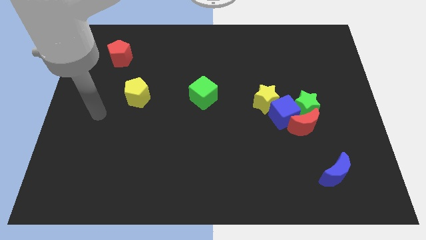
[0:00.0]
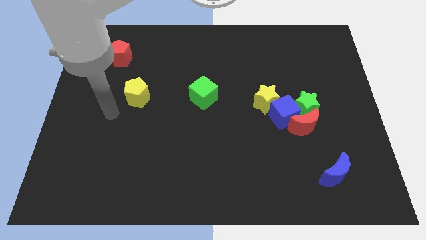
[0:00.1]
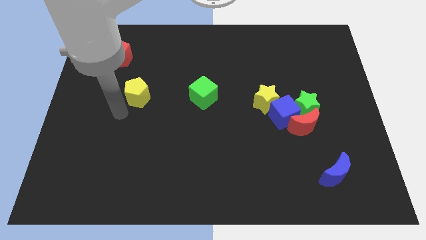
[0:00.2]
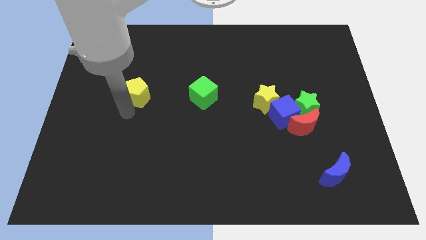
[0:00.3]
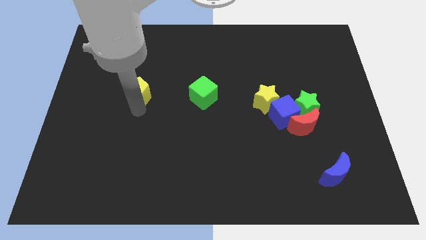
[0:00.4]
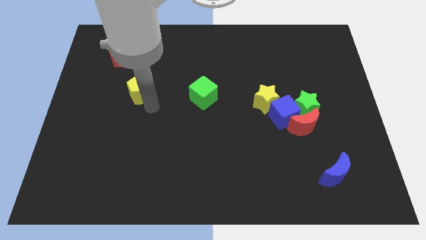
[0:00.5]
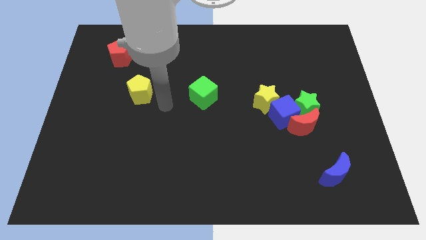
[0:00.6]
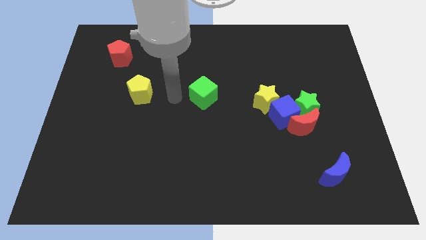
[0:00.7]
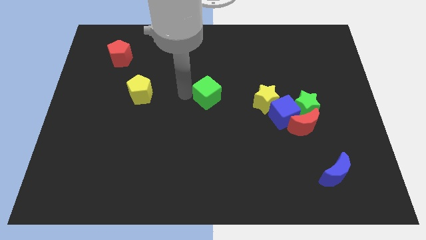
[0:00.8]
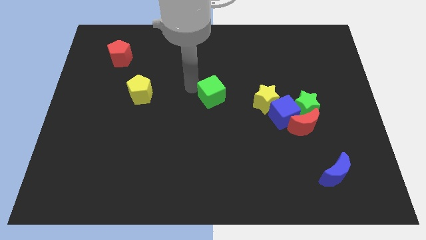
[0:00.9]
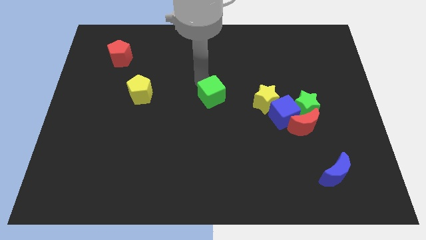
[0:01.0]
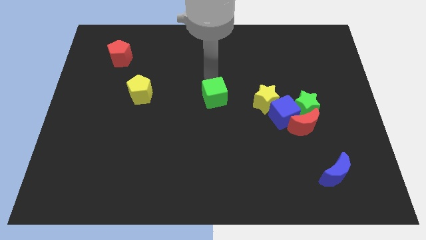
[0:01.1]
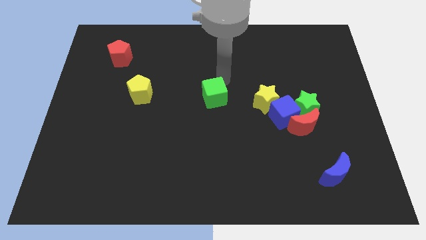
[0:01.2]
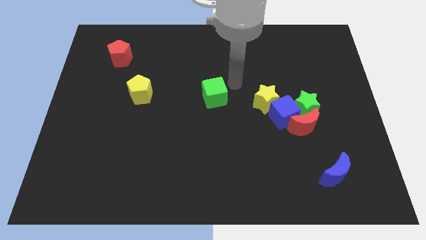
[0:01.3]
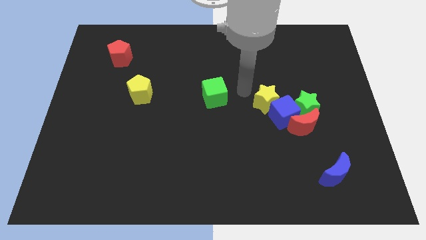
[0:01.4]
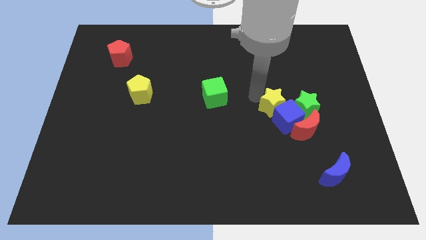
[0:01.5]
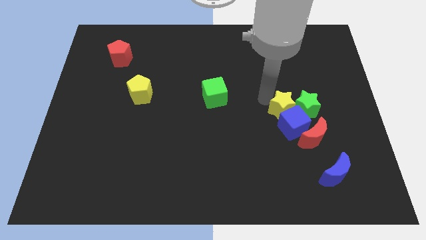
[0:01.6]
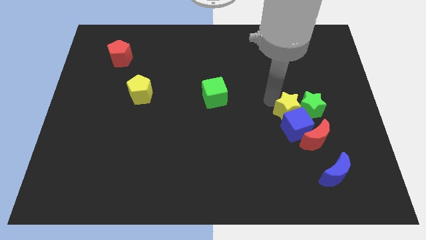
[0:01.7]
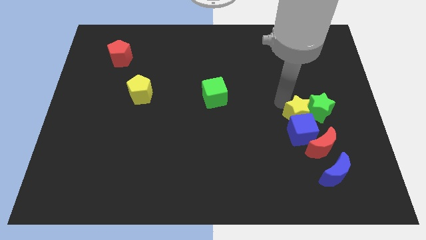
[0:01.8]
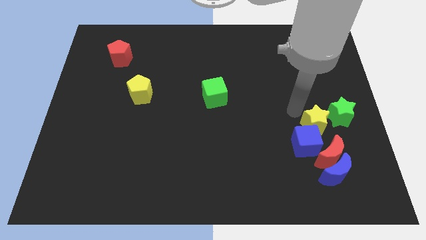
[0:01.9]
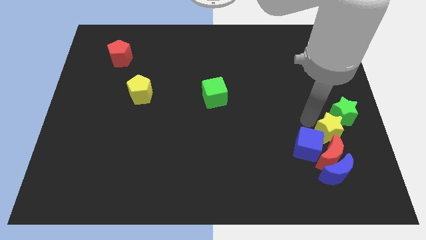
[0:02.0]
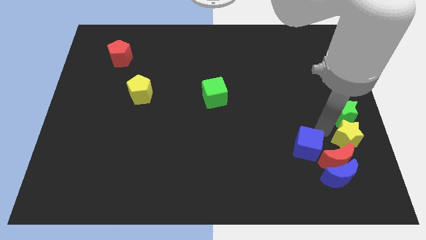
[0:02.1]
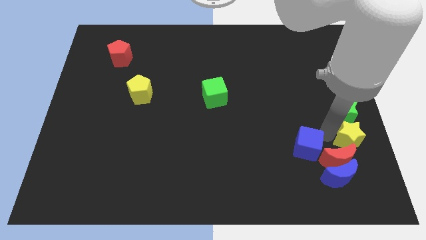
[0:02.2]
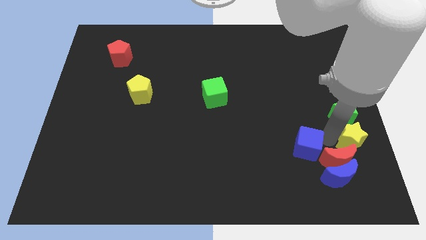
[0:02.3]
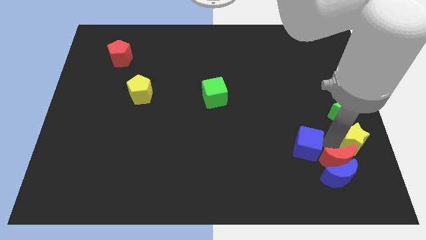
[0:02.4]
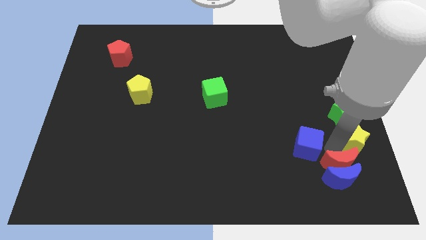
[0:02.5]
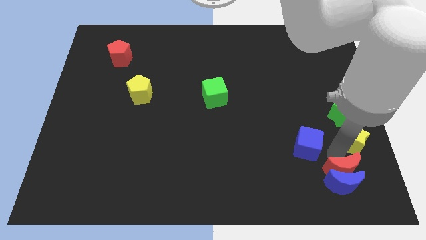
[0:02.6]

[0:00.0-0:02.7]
separate the red moon from the green star and blue cube

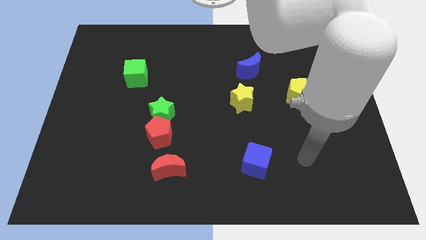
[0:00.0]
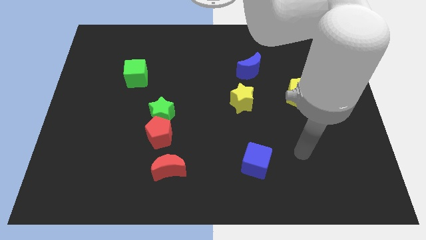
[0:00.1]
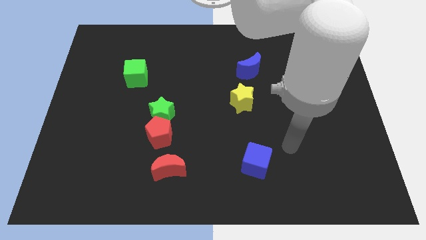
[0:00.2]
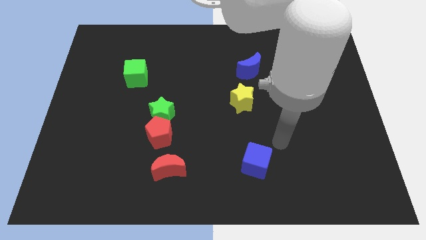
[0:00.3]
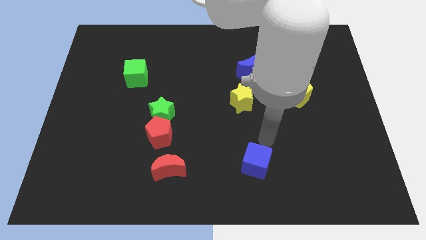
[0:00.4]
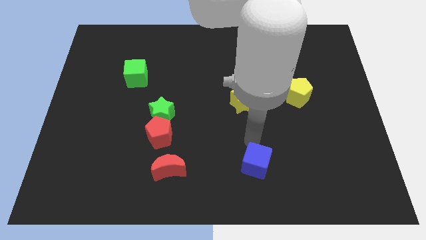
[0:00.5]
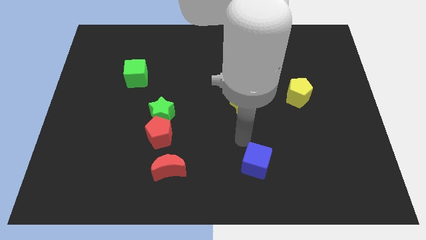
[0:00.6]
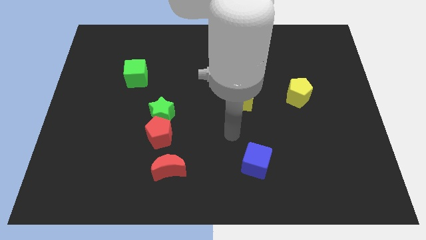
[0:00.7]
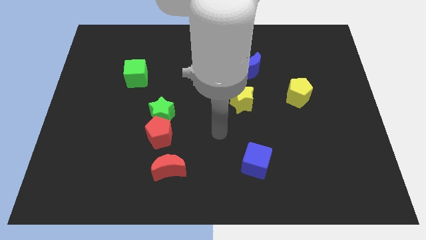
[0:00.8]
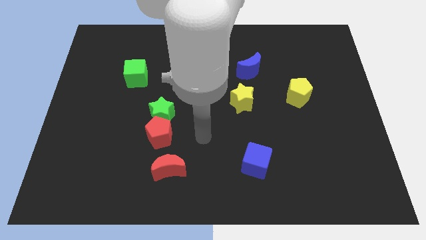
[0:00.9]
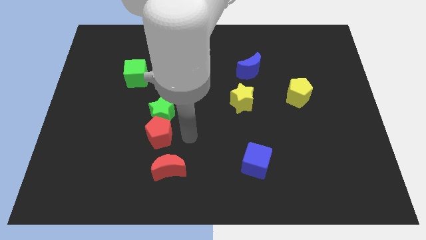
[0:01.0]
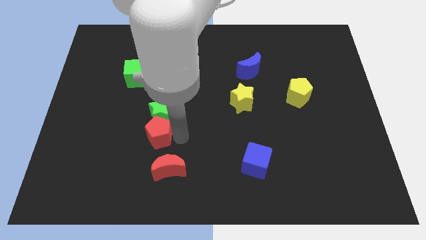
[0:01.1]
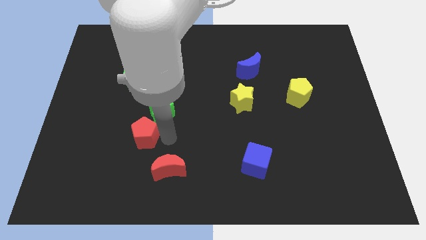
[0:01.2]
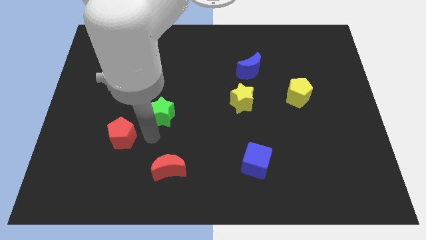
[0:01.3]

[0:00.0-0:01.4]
move the green star away from the red pentagon

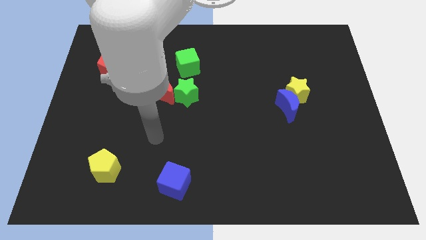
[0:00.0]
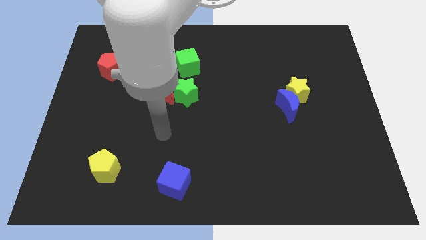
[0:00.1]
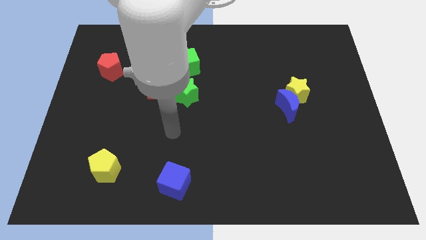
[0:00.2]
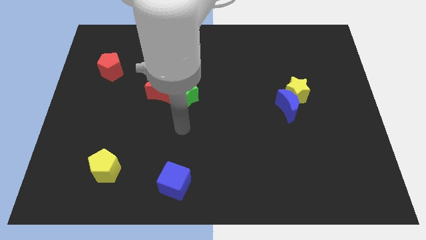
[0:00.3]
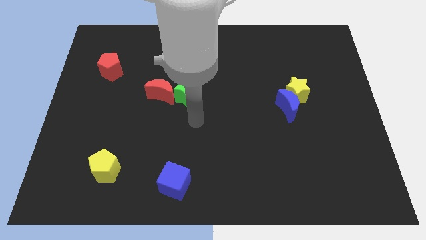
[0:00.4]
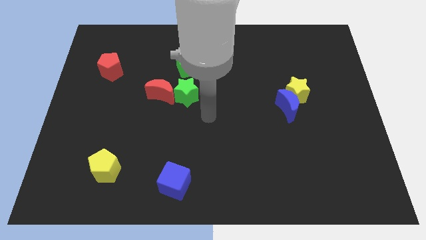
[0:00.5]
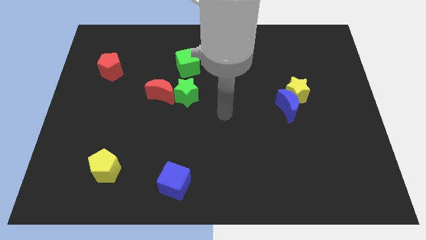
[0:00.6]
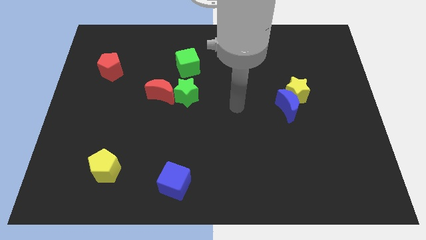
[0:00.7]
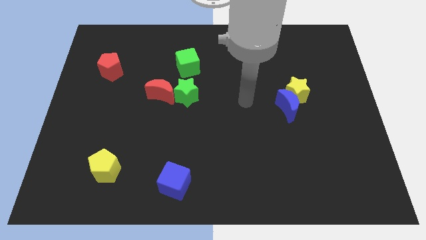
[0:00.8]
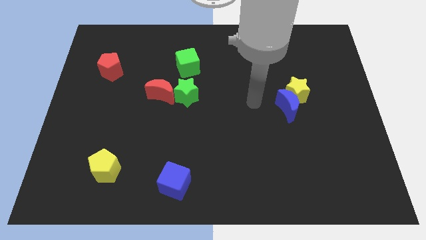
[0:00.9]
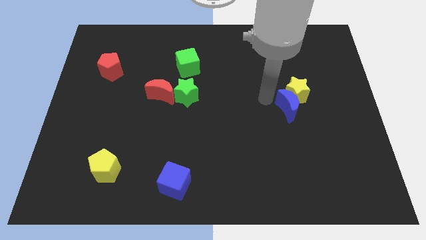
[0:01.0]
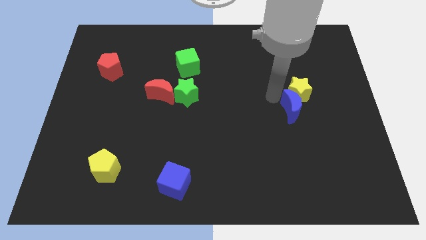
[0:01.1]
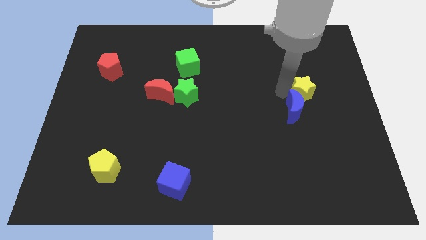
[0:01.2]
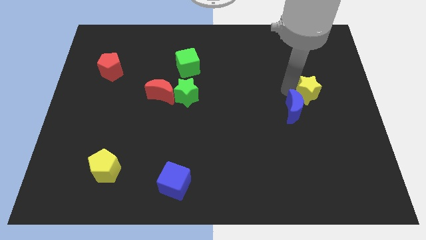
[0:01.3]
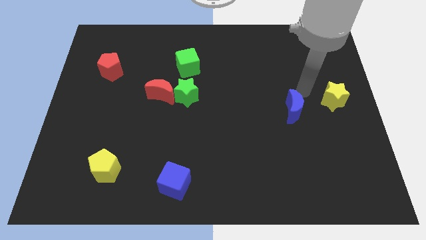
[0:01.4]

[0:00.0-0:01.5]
pull the blue moon apart from the yellow star

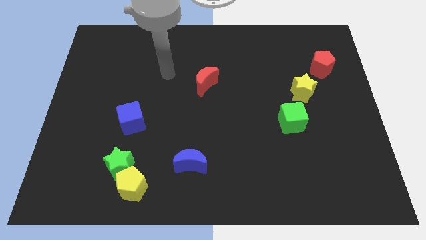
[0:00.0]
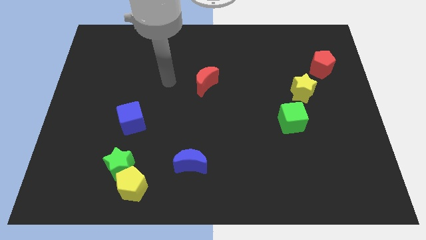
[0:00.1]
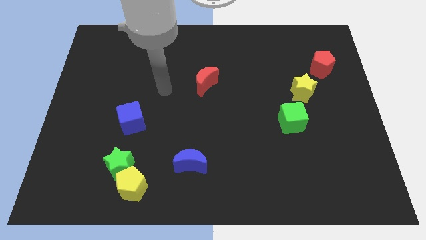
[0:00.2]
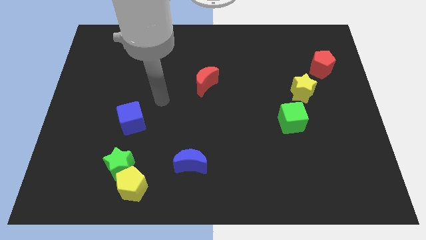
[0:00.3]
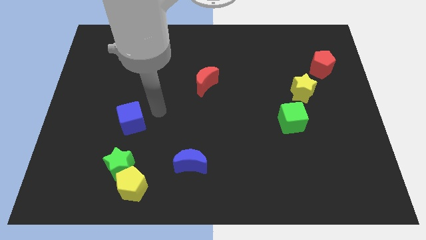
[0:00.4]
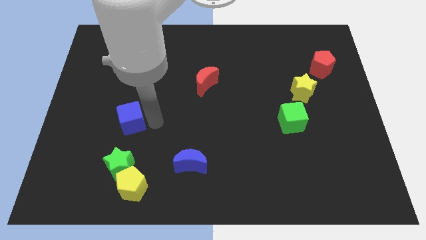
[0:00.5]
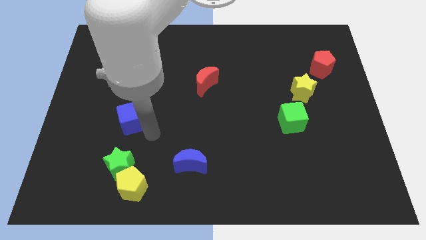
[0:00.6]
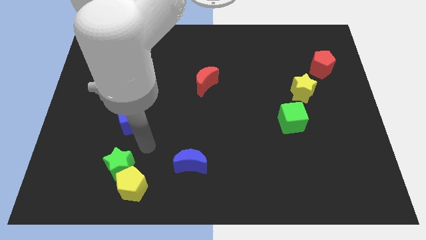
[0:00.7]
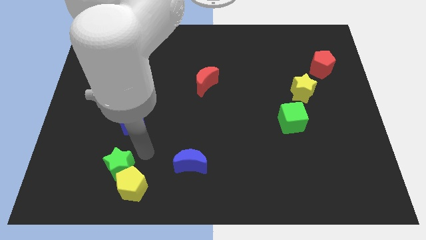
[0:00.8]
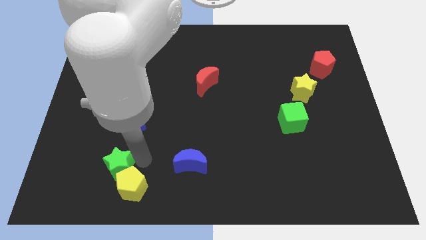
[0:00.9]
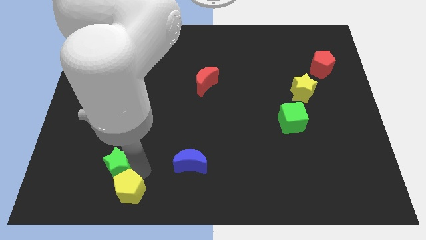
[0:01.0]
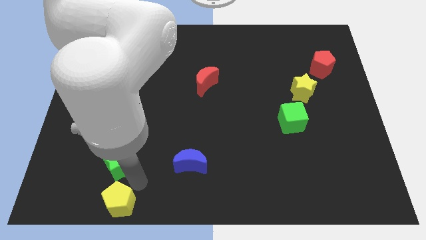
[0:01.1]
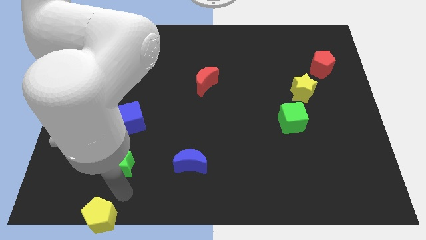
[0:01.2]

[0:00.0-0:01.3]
separate the green star from the yellow pentagon

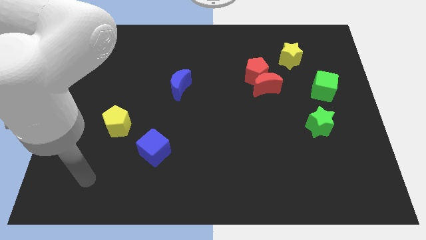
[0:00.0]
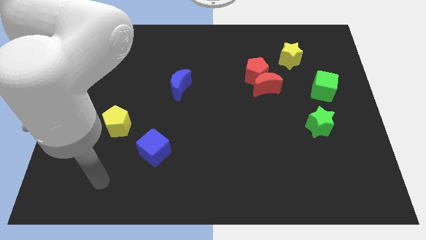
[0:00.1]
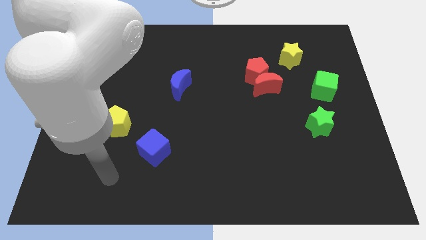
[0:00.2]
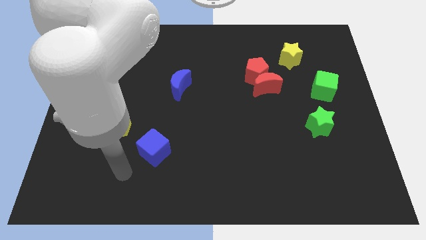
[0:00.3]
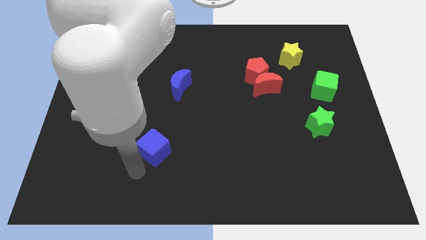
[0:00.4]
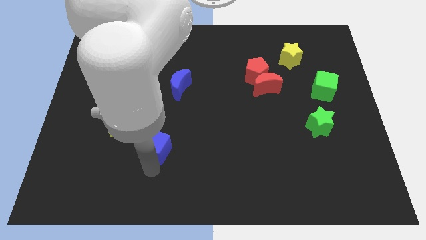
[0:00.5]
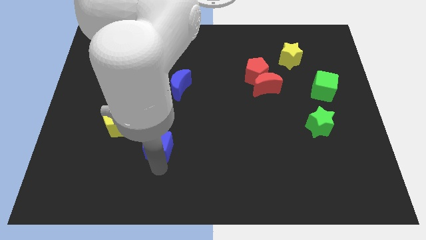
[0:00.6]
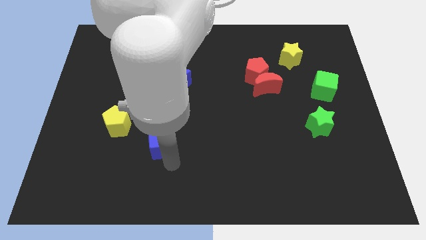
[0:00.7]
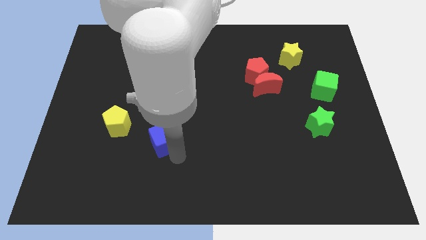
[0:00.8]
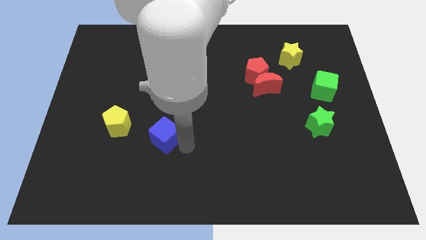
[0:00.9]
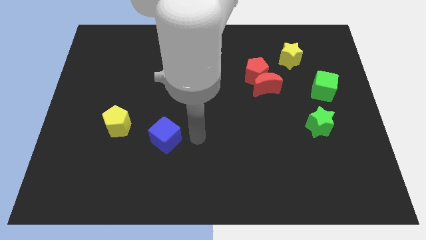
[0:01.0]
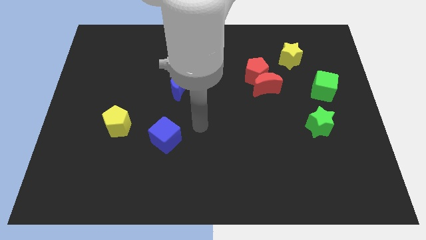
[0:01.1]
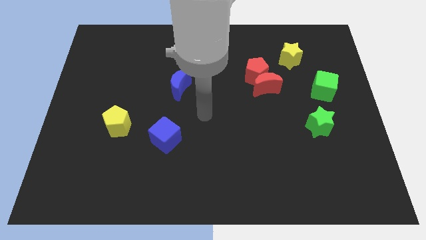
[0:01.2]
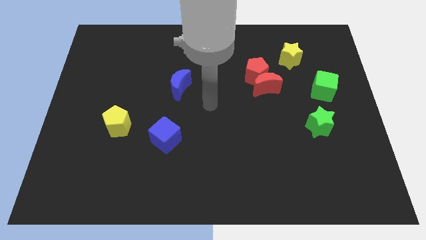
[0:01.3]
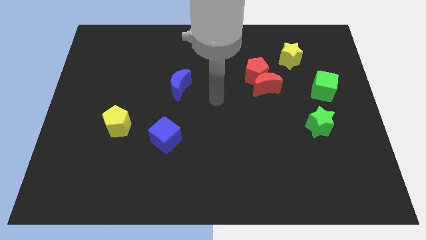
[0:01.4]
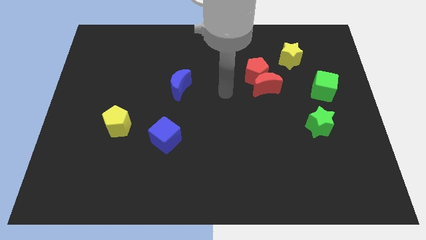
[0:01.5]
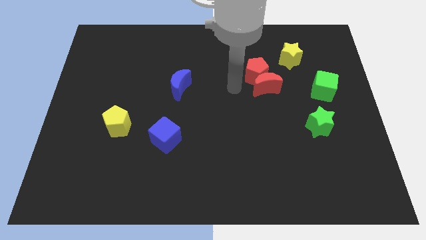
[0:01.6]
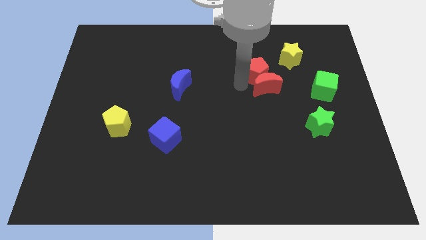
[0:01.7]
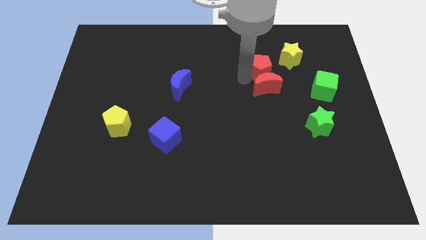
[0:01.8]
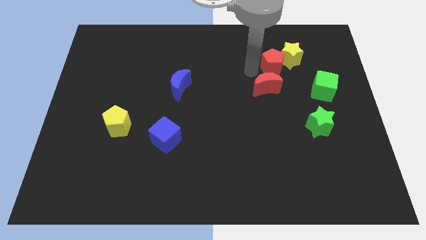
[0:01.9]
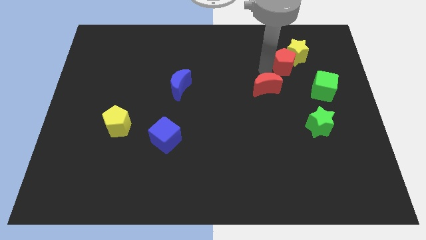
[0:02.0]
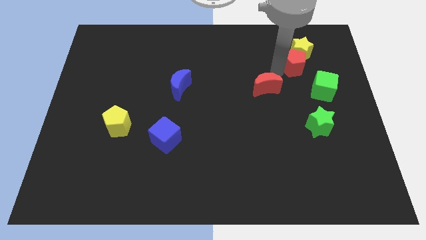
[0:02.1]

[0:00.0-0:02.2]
separate the red moon from the red pentagon

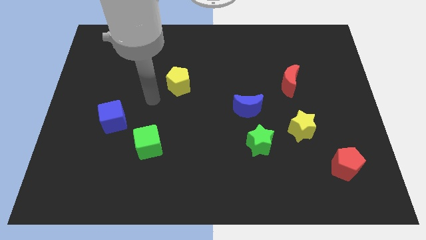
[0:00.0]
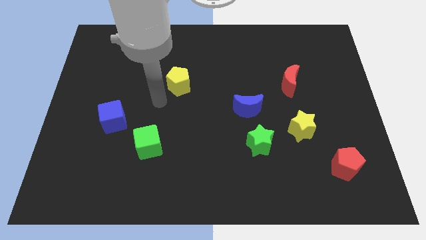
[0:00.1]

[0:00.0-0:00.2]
separate the blue moon from the green star
